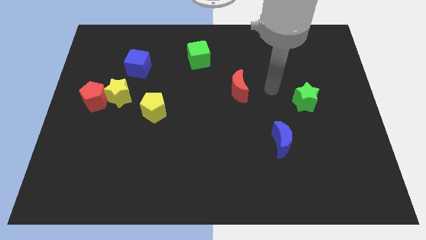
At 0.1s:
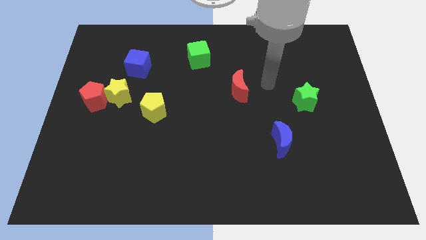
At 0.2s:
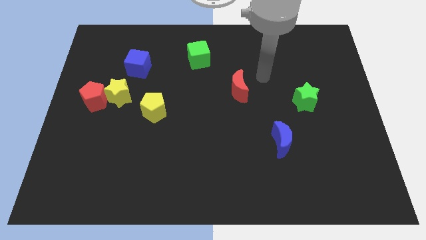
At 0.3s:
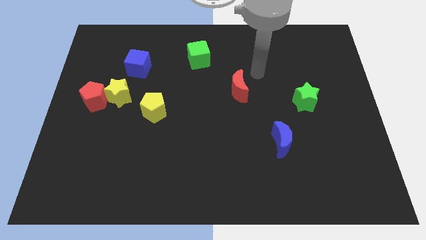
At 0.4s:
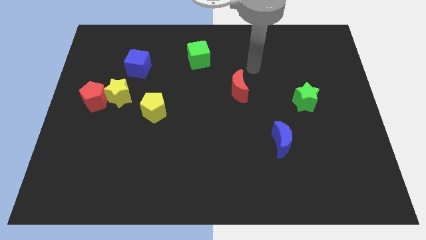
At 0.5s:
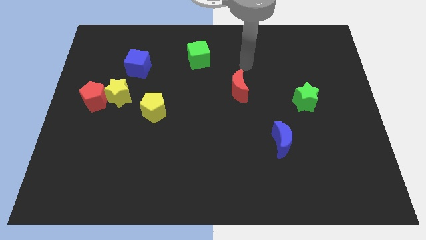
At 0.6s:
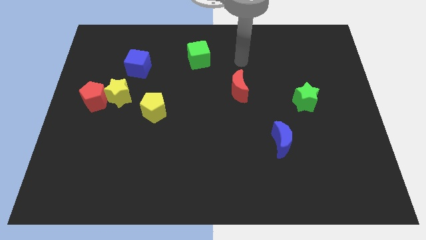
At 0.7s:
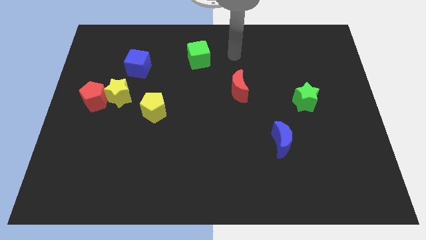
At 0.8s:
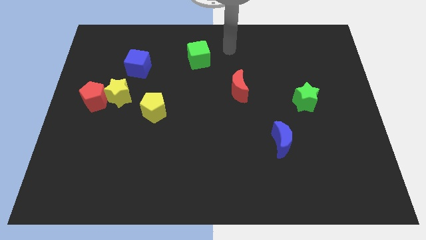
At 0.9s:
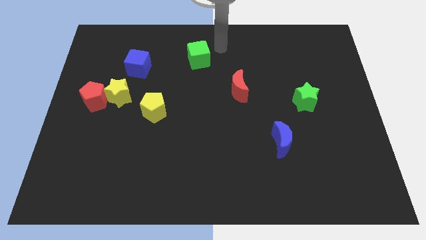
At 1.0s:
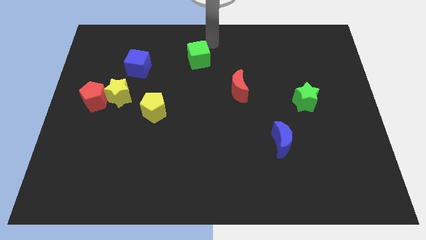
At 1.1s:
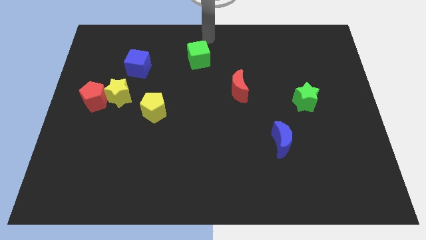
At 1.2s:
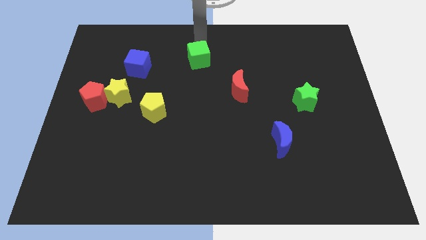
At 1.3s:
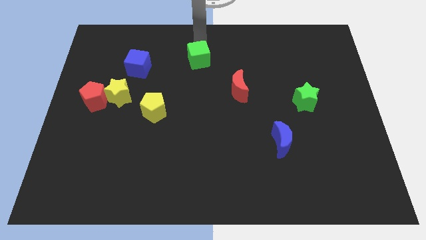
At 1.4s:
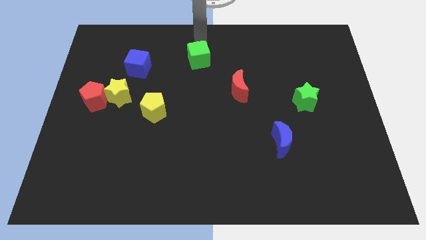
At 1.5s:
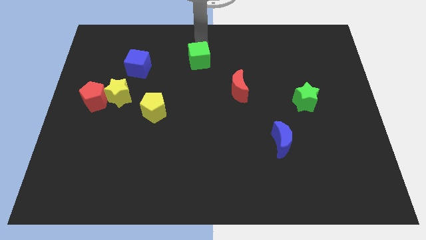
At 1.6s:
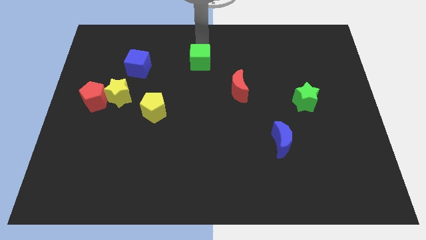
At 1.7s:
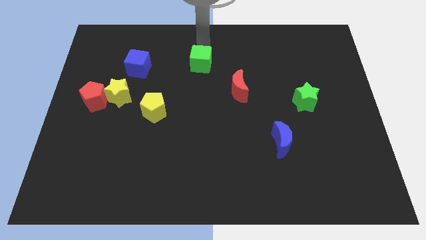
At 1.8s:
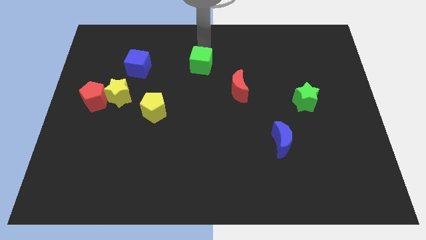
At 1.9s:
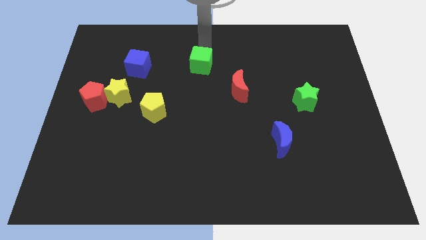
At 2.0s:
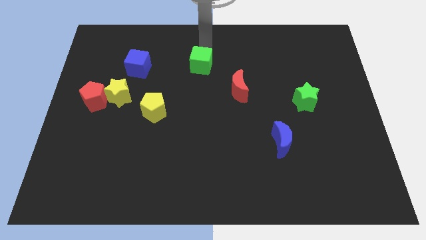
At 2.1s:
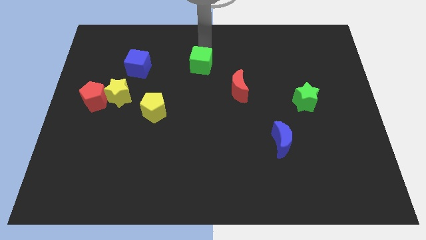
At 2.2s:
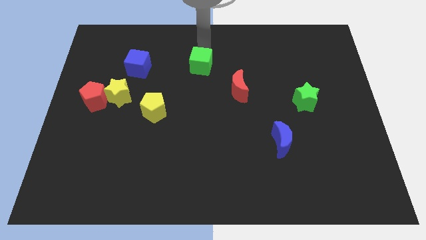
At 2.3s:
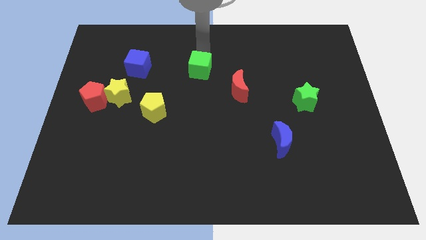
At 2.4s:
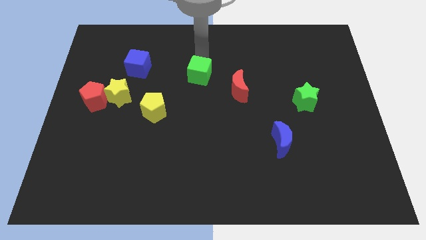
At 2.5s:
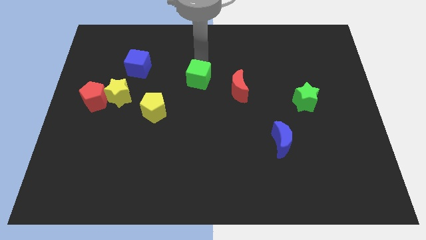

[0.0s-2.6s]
push the green cube down a little bit

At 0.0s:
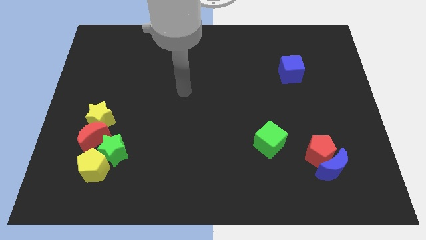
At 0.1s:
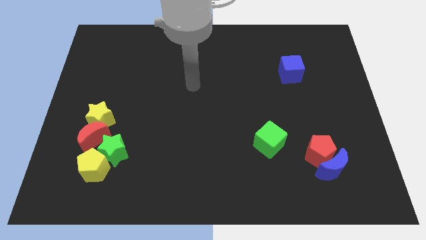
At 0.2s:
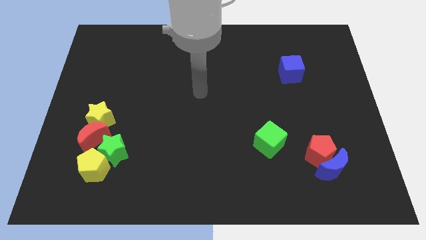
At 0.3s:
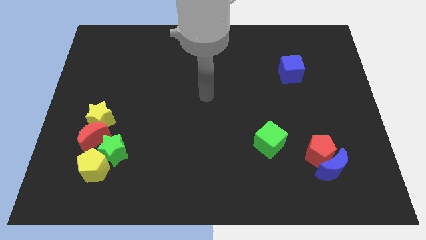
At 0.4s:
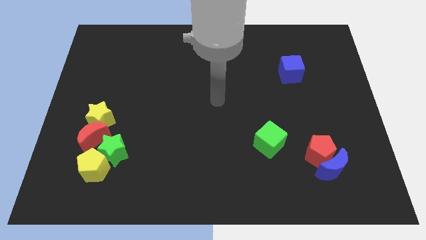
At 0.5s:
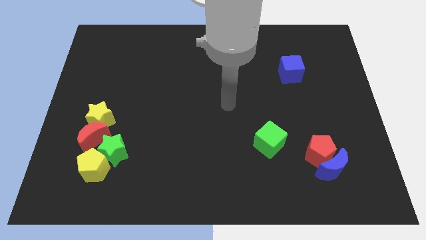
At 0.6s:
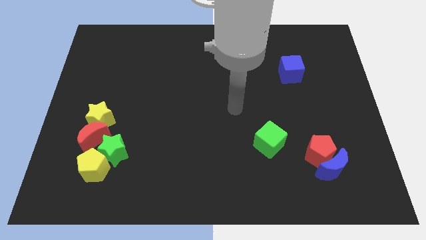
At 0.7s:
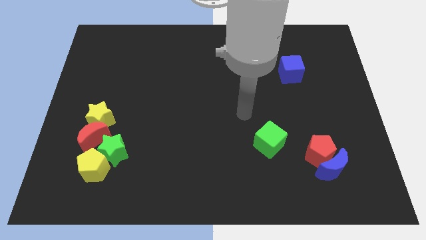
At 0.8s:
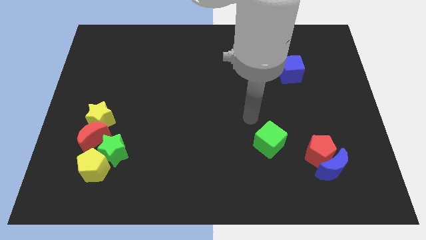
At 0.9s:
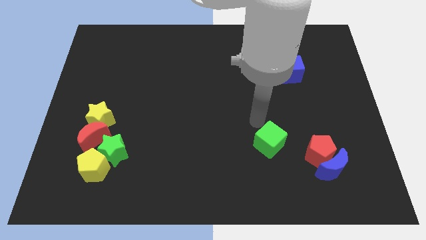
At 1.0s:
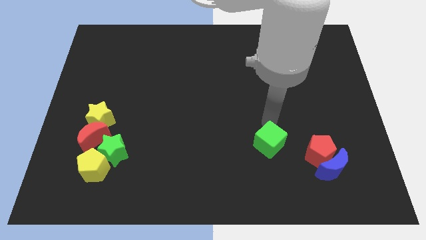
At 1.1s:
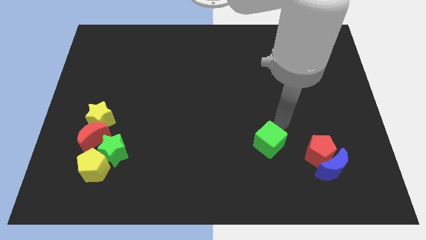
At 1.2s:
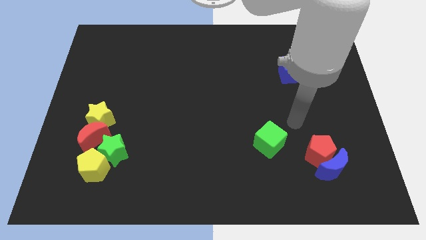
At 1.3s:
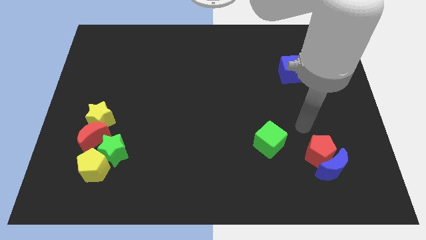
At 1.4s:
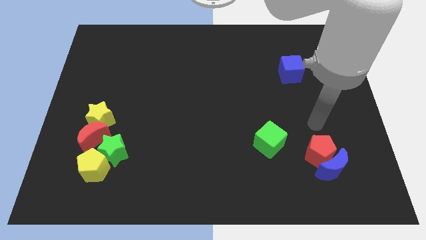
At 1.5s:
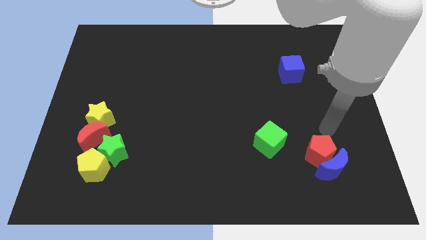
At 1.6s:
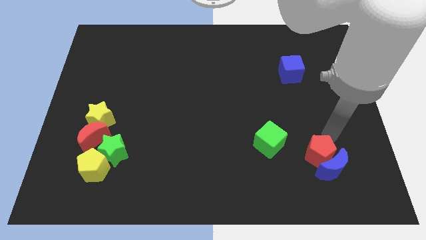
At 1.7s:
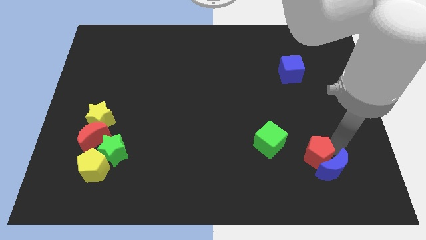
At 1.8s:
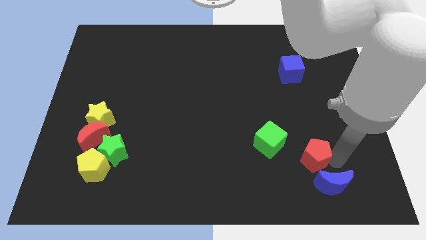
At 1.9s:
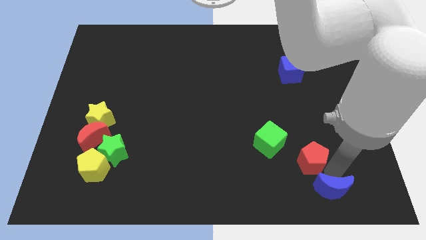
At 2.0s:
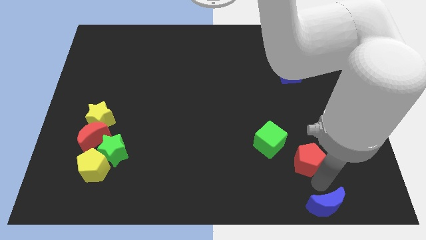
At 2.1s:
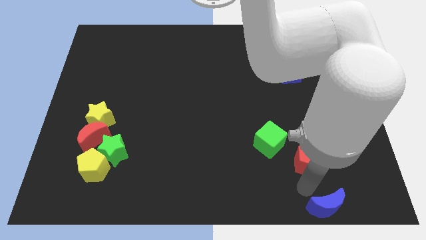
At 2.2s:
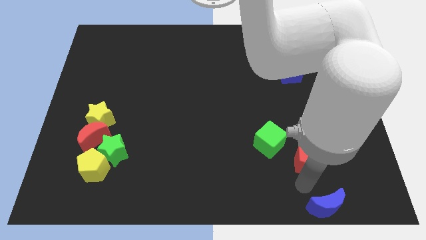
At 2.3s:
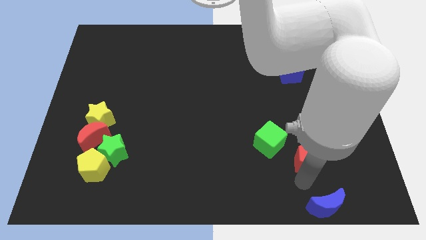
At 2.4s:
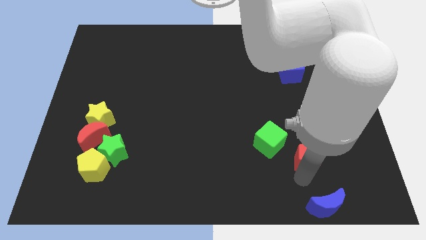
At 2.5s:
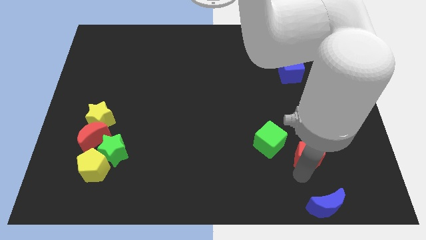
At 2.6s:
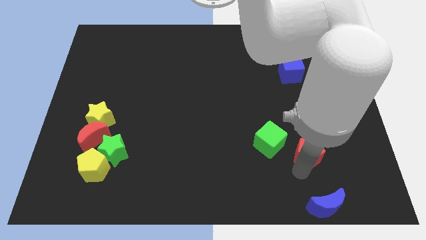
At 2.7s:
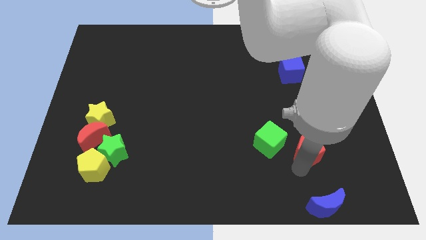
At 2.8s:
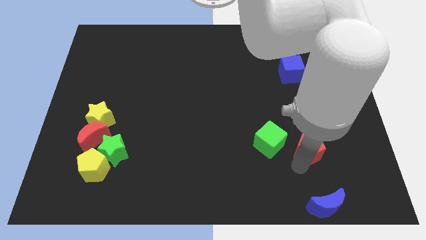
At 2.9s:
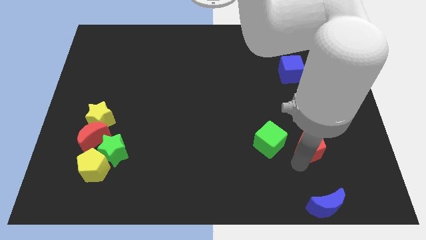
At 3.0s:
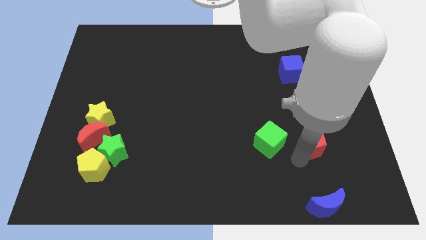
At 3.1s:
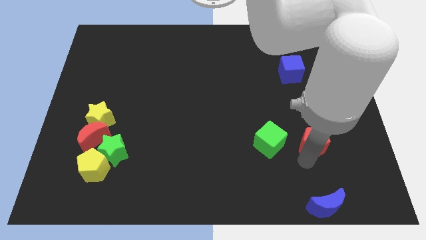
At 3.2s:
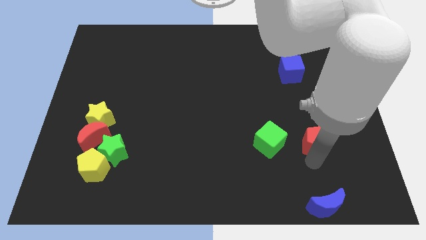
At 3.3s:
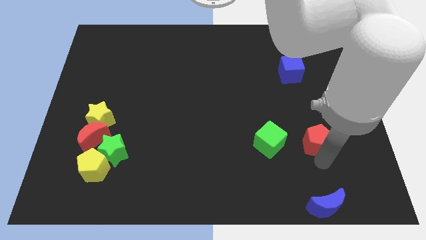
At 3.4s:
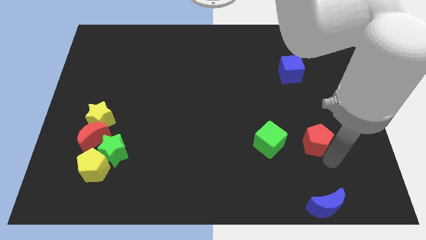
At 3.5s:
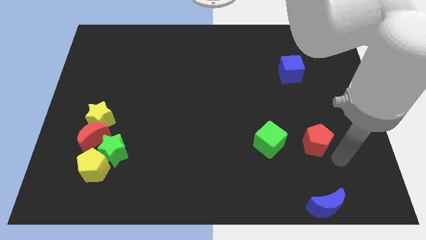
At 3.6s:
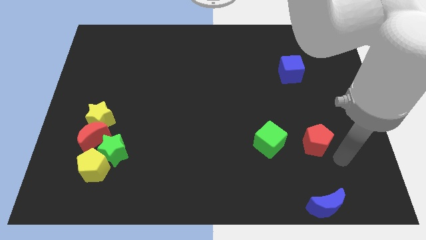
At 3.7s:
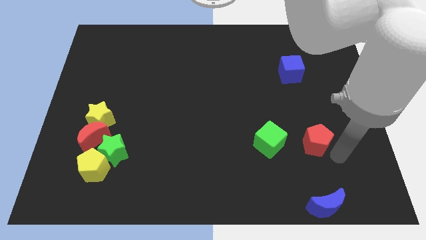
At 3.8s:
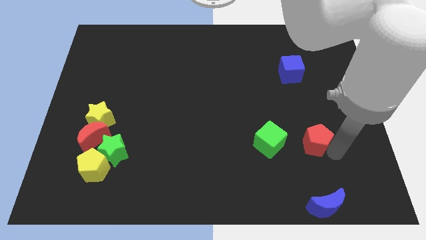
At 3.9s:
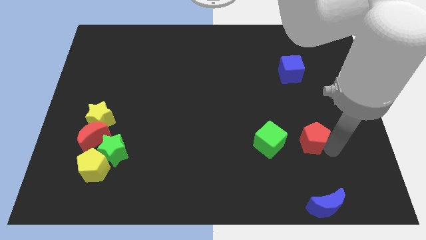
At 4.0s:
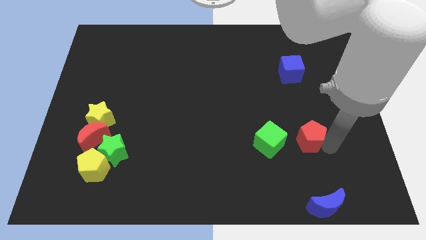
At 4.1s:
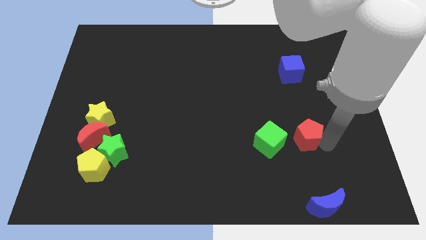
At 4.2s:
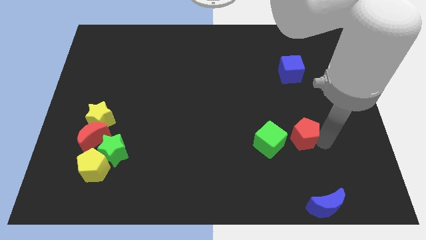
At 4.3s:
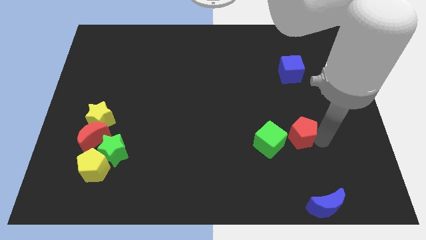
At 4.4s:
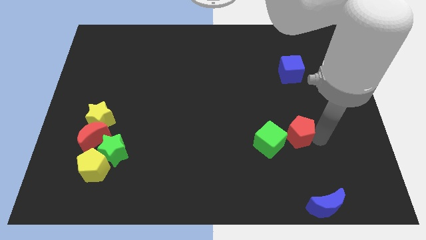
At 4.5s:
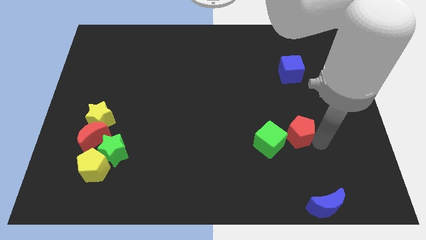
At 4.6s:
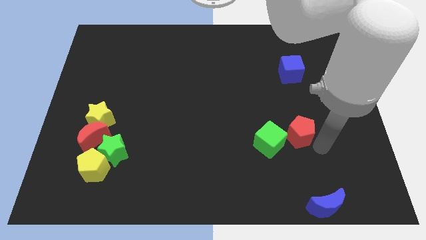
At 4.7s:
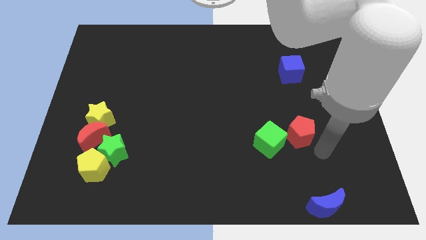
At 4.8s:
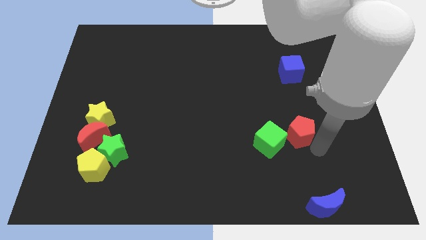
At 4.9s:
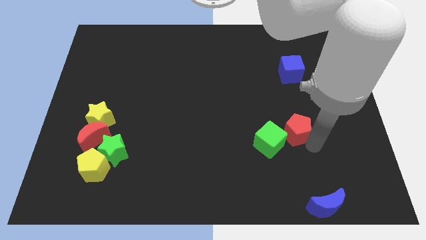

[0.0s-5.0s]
move the red pentagon diagonally up and left a bit

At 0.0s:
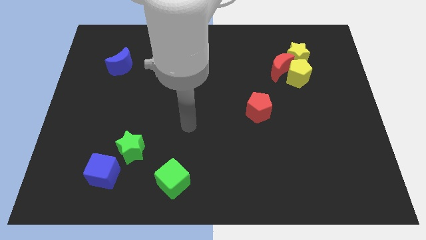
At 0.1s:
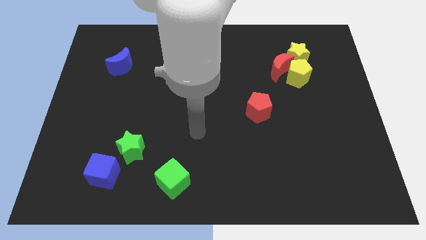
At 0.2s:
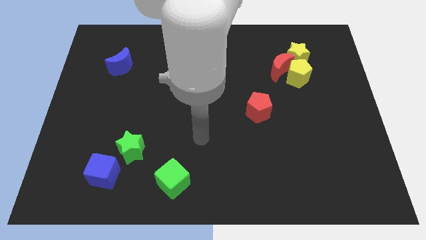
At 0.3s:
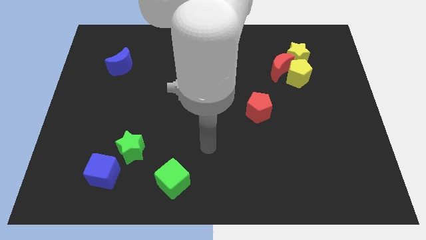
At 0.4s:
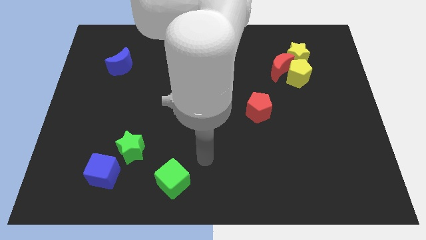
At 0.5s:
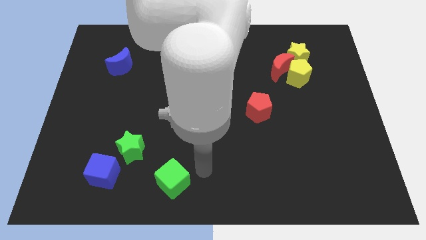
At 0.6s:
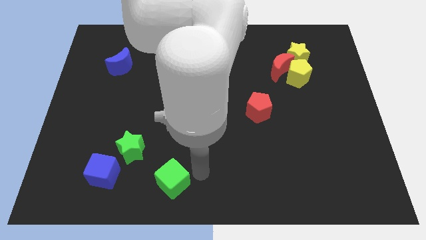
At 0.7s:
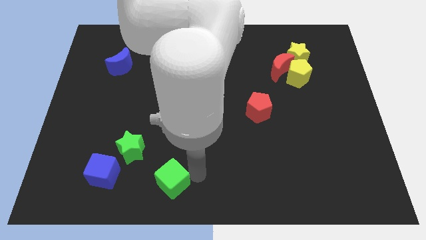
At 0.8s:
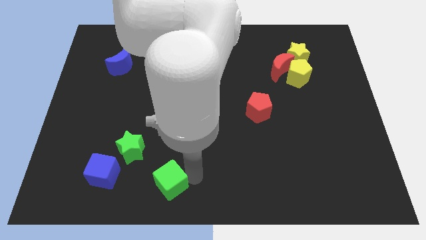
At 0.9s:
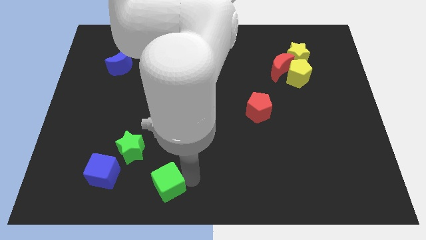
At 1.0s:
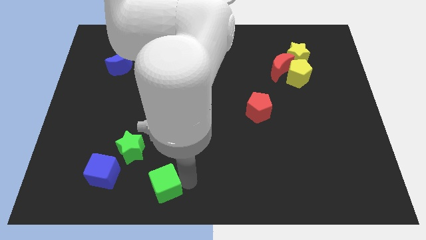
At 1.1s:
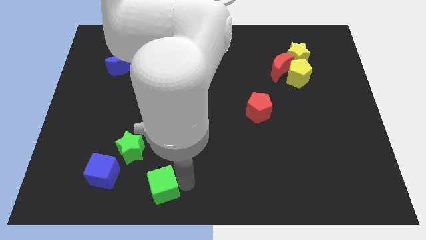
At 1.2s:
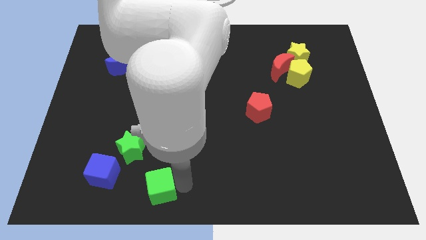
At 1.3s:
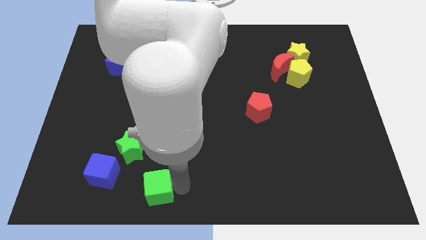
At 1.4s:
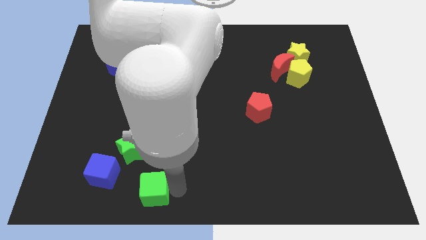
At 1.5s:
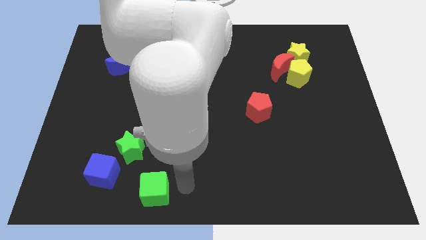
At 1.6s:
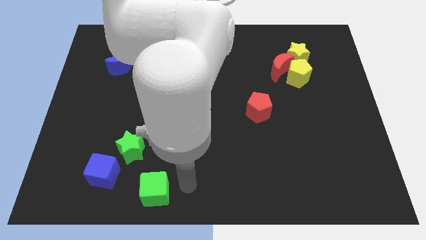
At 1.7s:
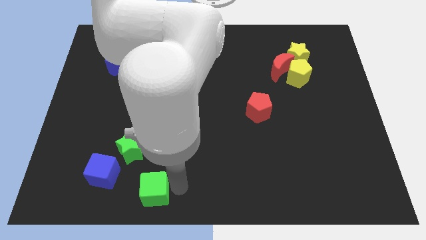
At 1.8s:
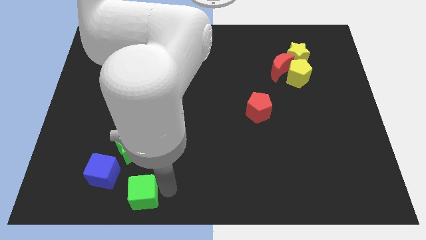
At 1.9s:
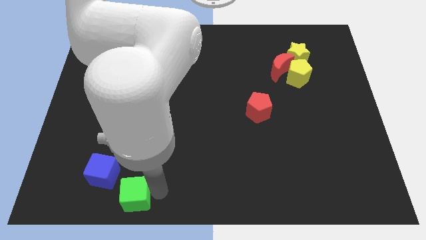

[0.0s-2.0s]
slide the green cube a bit left
